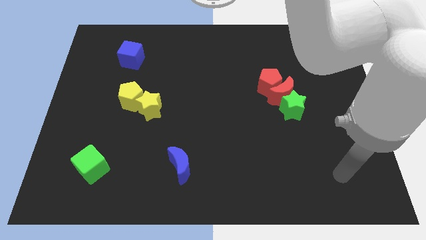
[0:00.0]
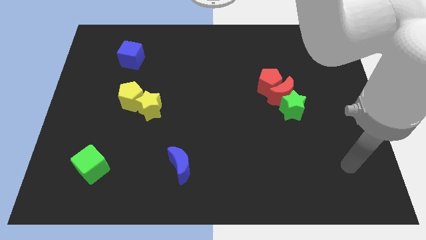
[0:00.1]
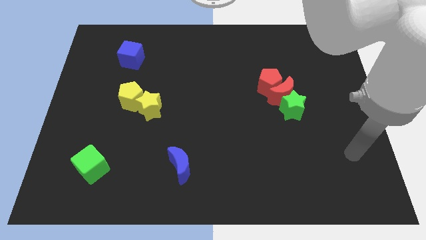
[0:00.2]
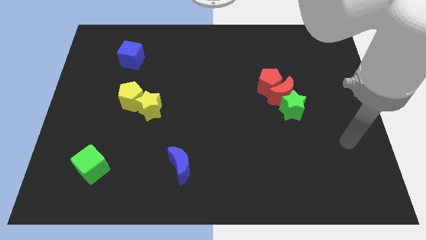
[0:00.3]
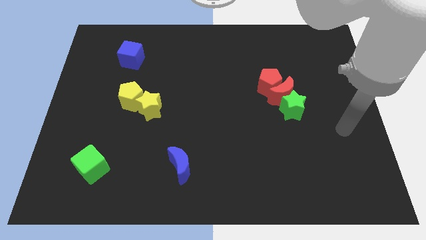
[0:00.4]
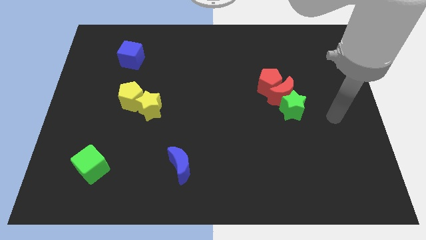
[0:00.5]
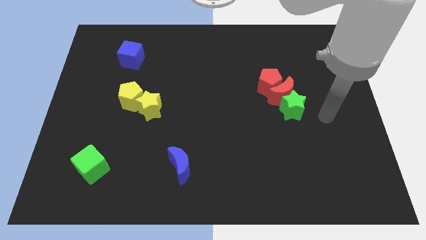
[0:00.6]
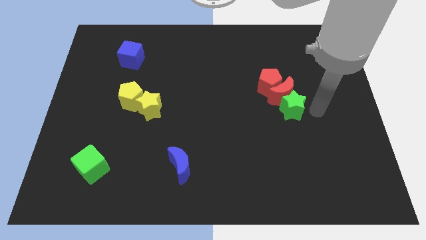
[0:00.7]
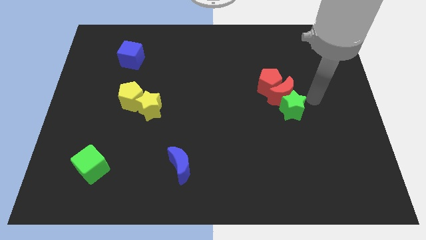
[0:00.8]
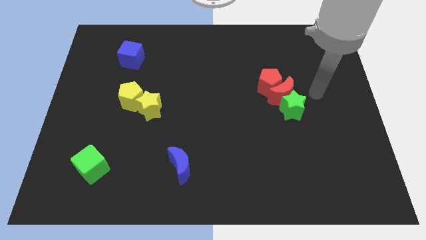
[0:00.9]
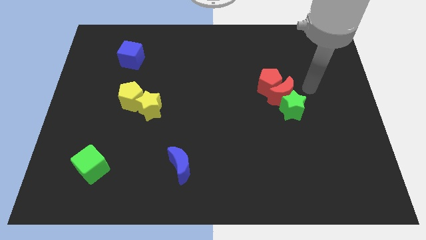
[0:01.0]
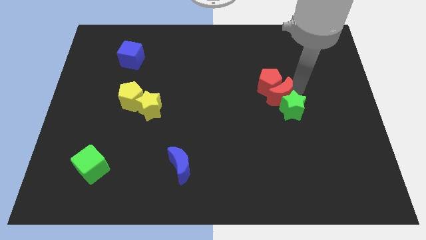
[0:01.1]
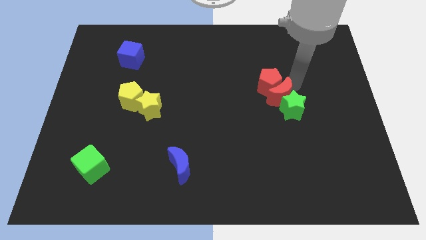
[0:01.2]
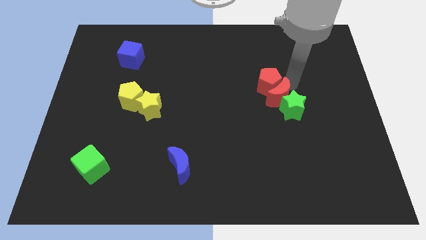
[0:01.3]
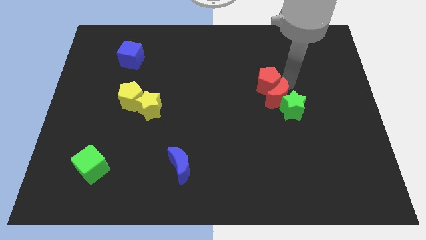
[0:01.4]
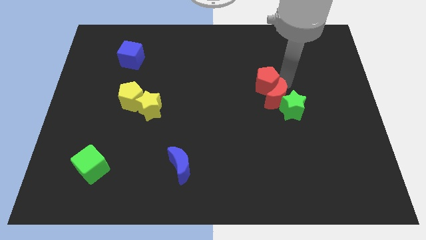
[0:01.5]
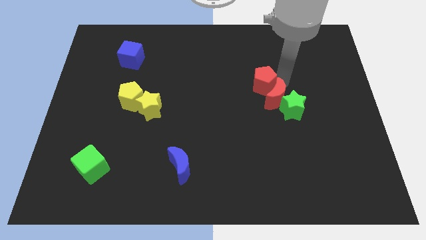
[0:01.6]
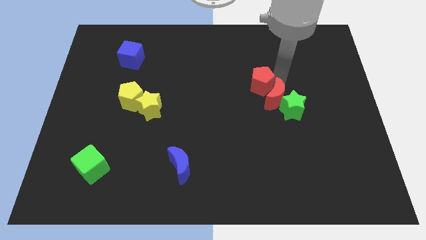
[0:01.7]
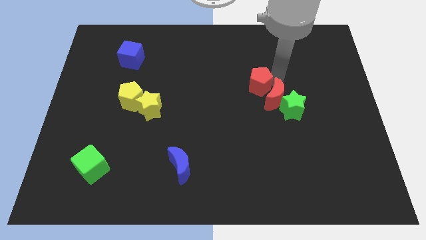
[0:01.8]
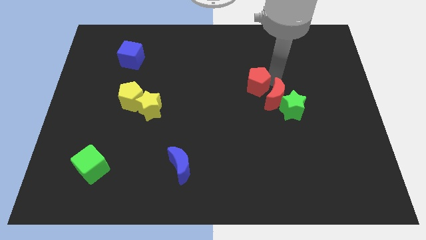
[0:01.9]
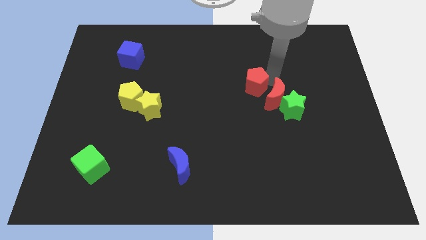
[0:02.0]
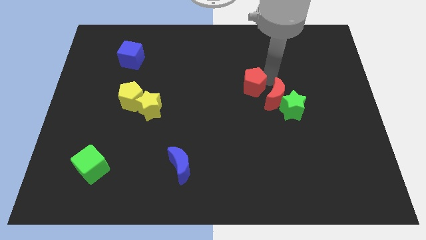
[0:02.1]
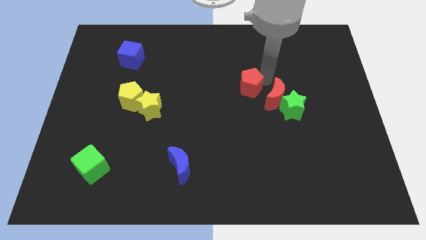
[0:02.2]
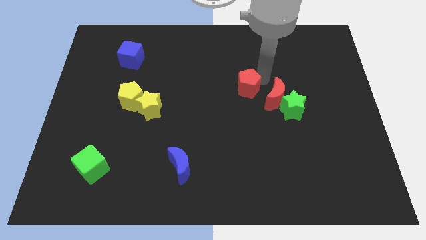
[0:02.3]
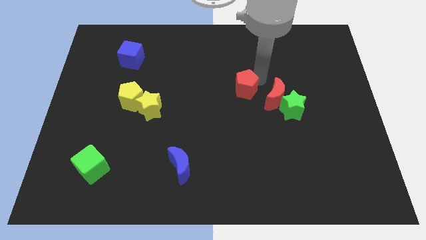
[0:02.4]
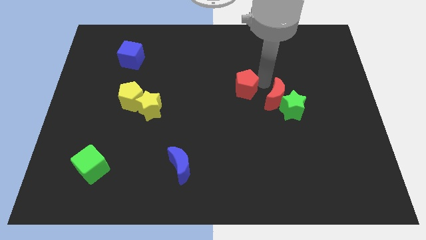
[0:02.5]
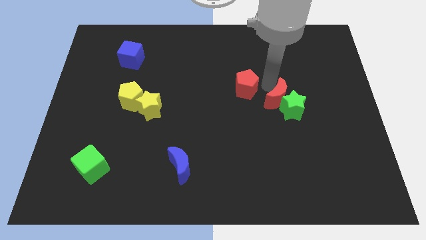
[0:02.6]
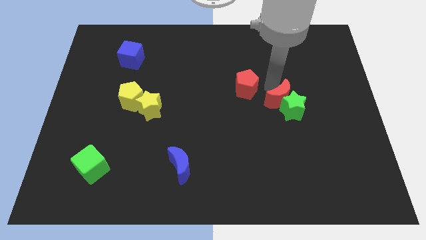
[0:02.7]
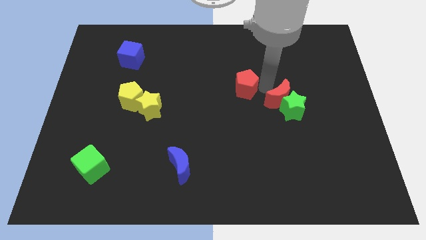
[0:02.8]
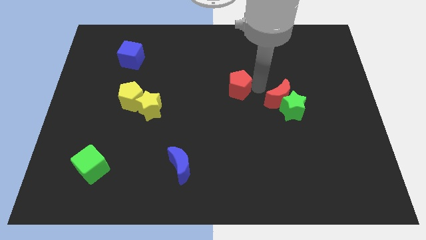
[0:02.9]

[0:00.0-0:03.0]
push the red pentagon a bit to the left

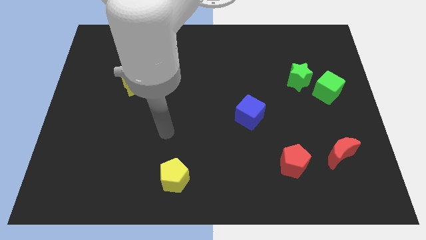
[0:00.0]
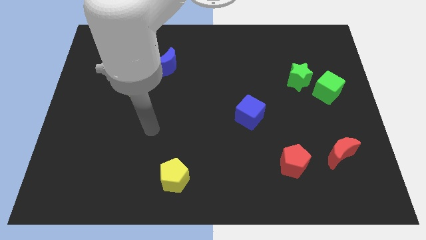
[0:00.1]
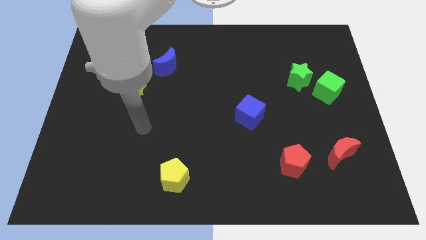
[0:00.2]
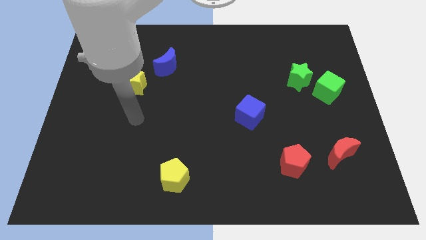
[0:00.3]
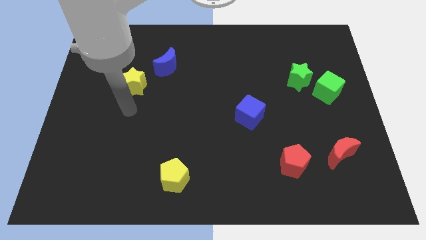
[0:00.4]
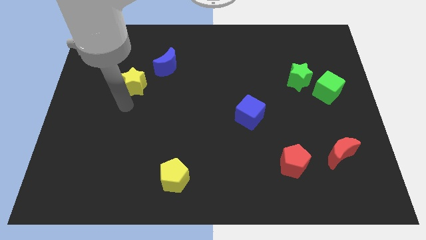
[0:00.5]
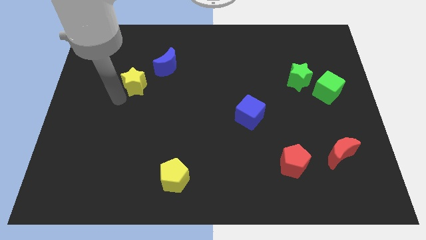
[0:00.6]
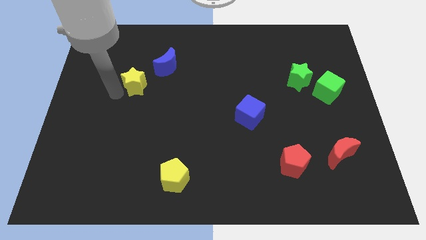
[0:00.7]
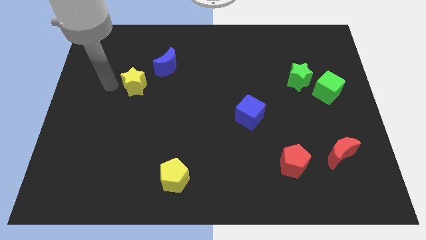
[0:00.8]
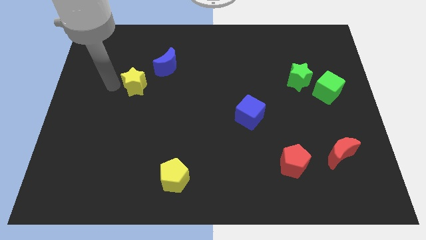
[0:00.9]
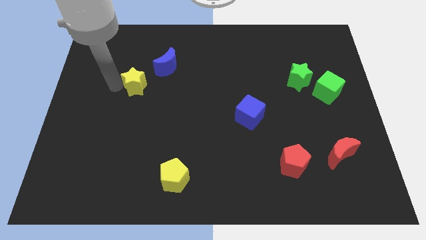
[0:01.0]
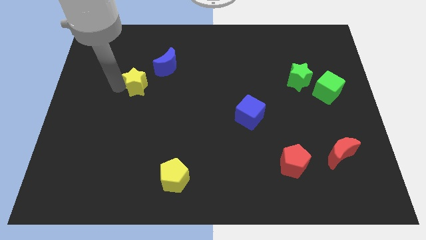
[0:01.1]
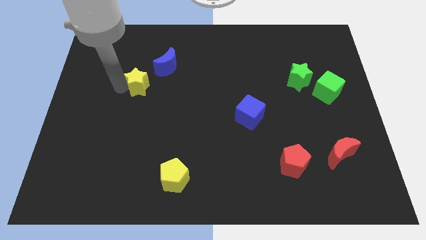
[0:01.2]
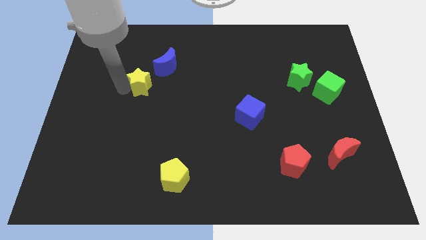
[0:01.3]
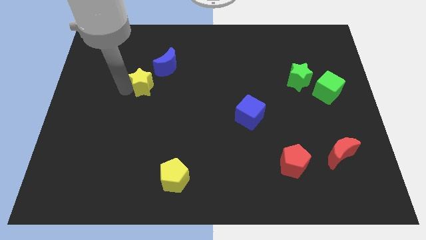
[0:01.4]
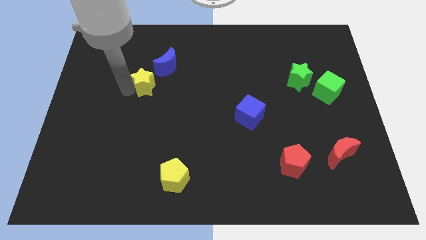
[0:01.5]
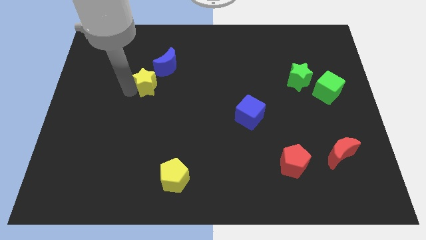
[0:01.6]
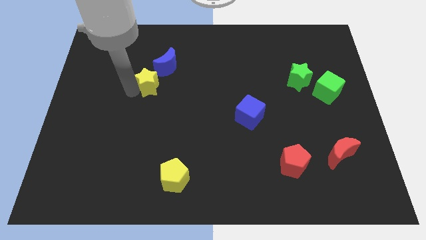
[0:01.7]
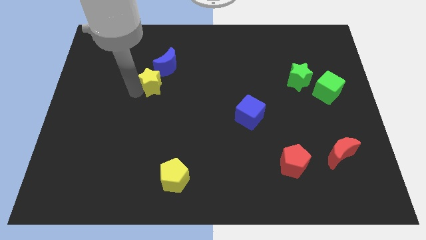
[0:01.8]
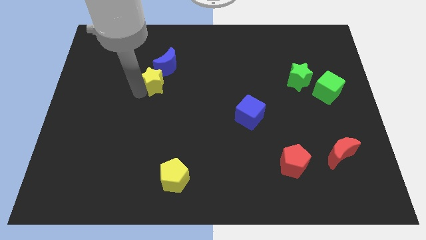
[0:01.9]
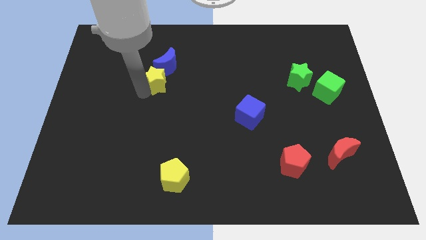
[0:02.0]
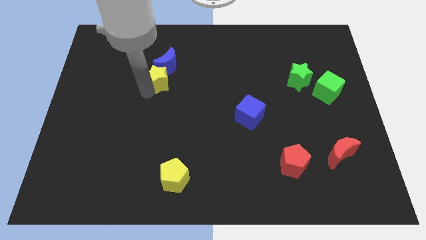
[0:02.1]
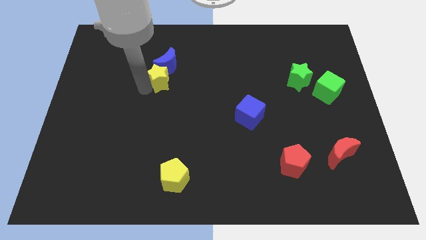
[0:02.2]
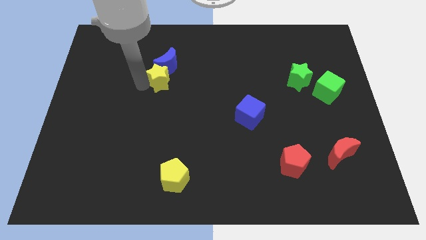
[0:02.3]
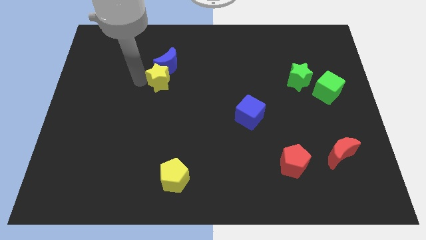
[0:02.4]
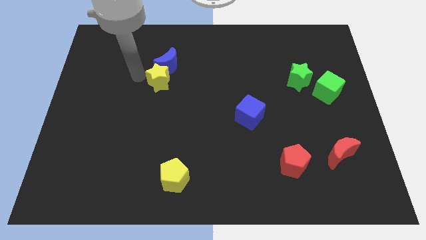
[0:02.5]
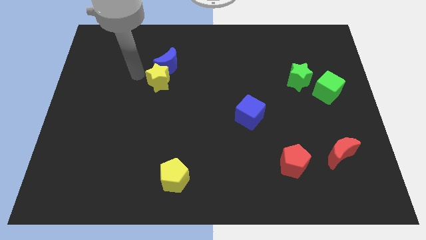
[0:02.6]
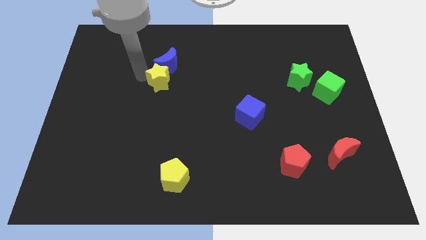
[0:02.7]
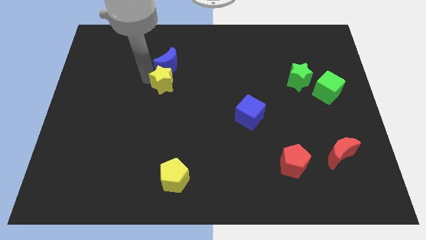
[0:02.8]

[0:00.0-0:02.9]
move the yellow star right slightly

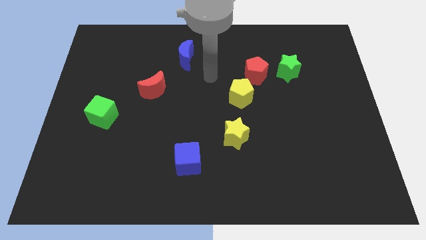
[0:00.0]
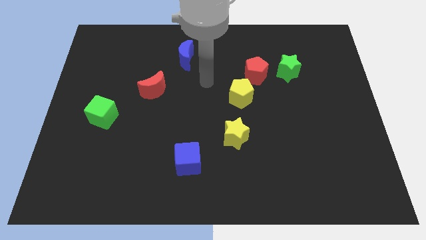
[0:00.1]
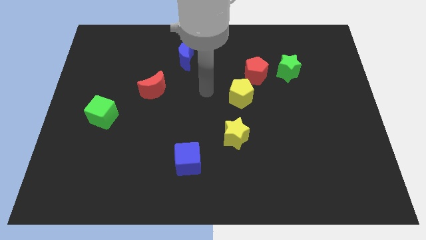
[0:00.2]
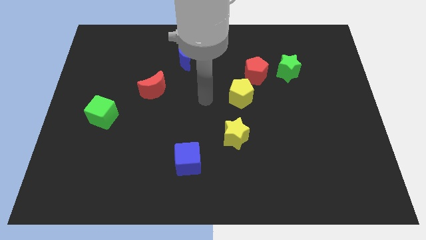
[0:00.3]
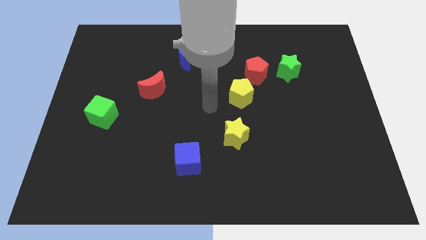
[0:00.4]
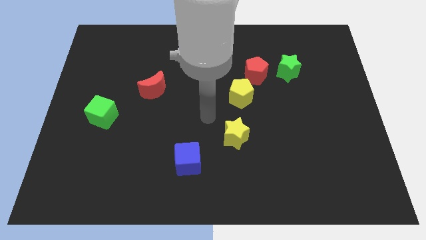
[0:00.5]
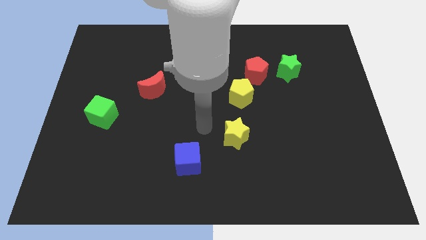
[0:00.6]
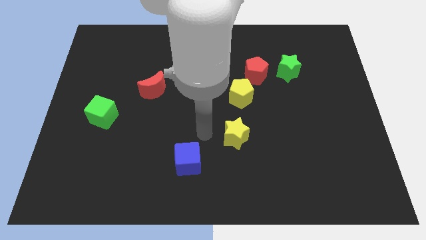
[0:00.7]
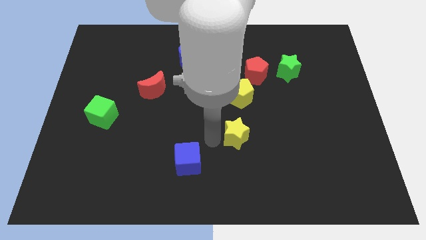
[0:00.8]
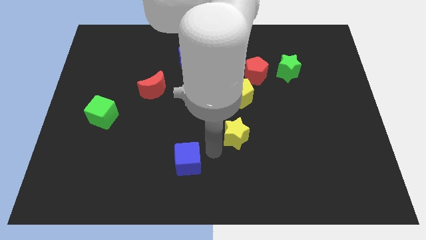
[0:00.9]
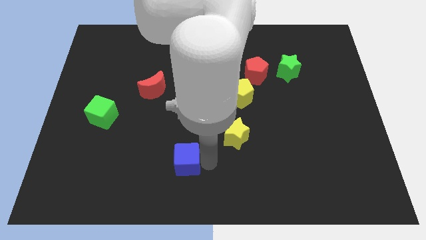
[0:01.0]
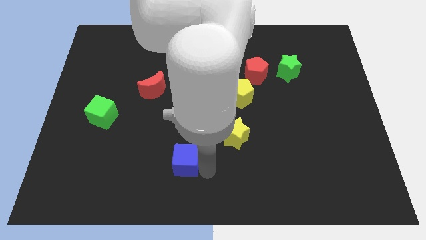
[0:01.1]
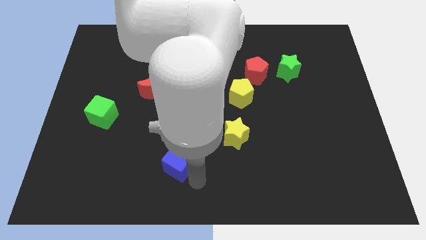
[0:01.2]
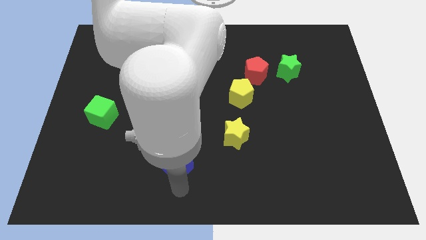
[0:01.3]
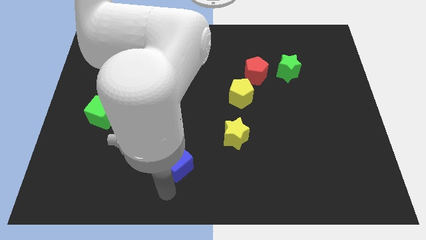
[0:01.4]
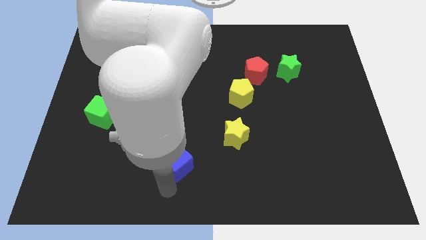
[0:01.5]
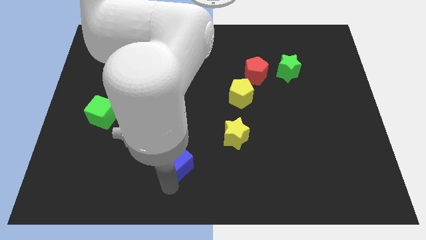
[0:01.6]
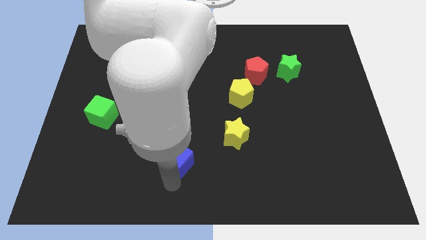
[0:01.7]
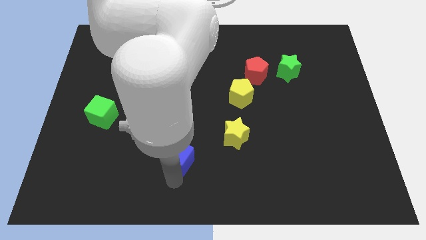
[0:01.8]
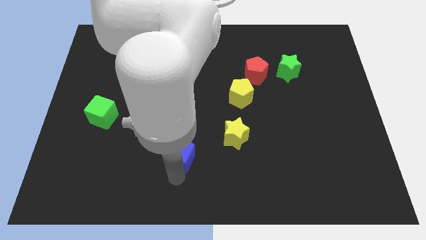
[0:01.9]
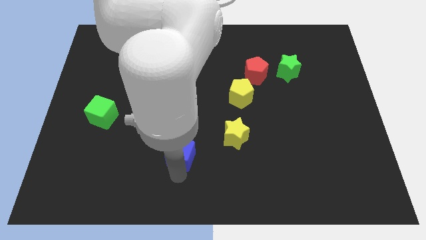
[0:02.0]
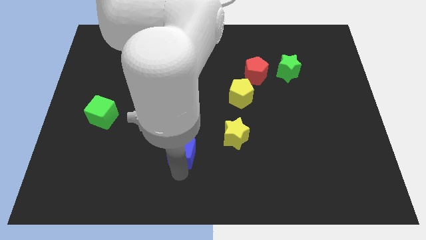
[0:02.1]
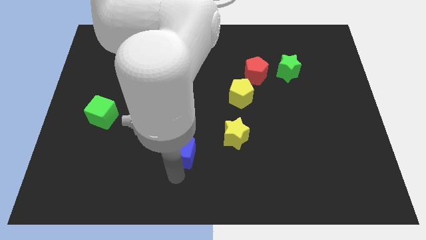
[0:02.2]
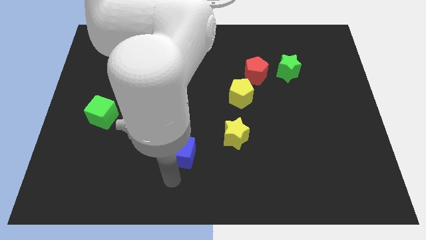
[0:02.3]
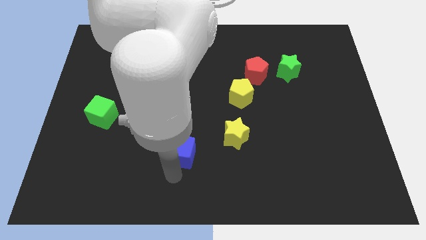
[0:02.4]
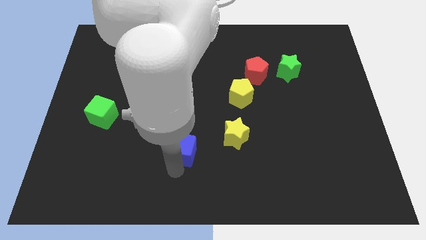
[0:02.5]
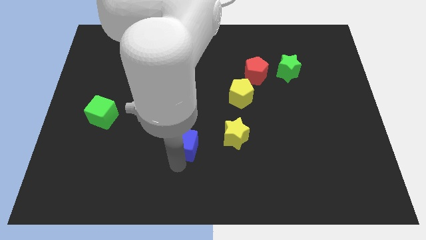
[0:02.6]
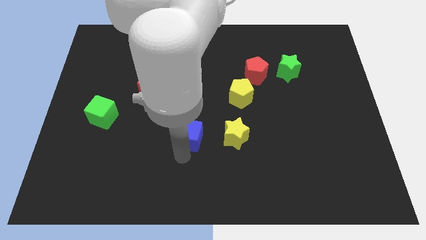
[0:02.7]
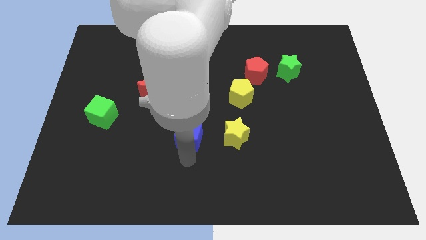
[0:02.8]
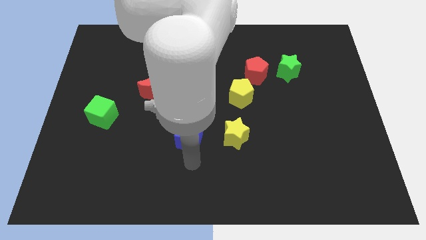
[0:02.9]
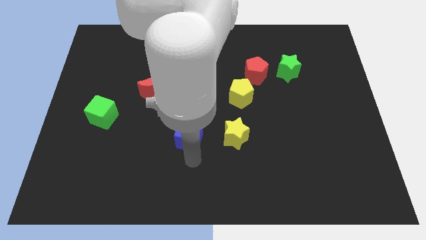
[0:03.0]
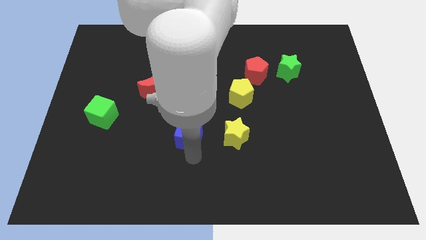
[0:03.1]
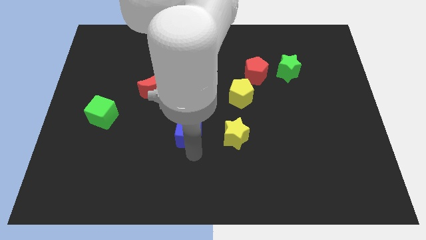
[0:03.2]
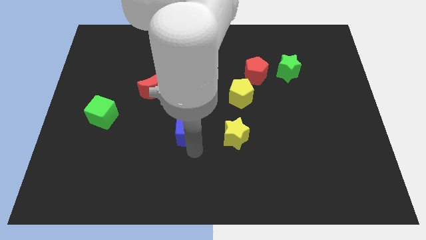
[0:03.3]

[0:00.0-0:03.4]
push the blue cube upwards a little
